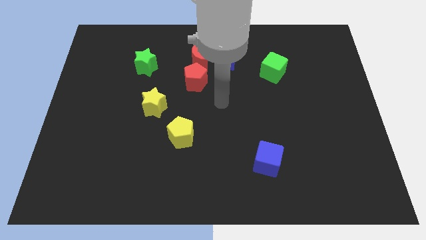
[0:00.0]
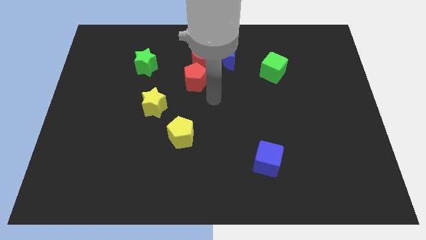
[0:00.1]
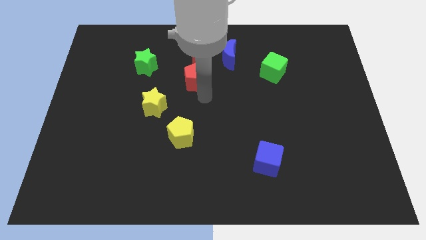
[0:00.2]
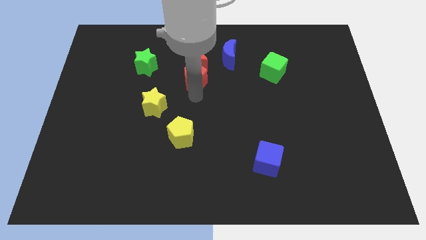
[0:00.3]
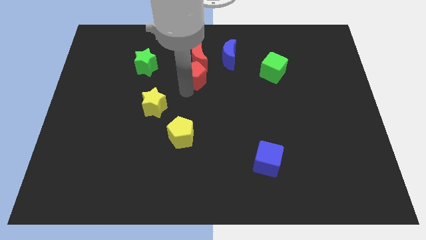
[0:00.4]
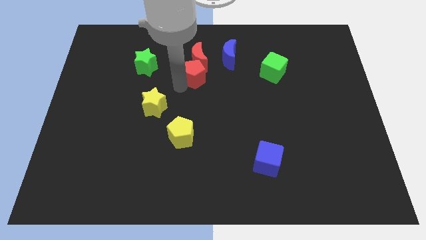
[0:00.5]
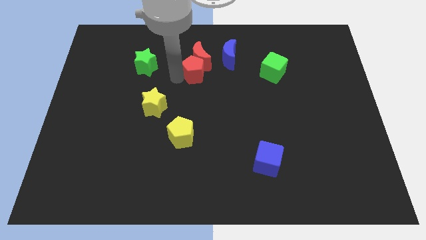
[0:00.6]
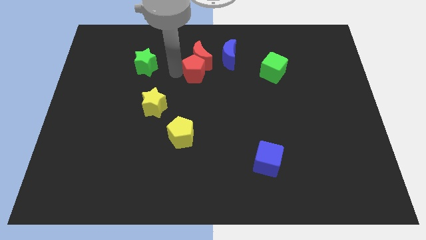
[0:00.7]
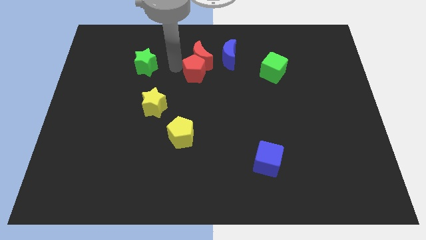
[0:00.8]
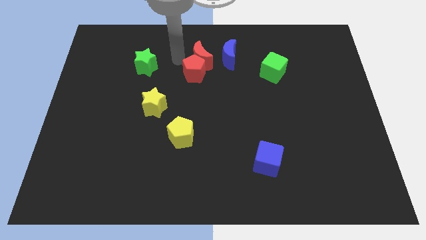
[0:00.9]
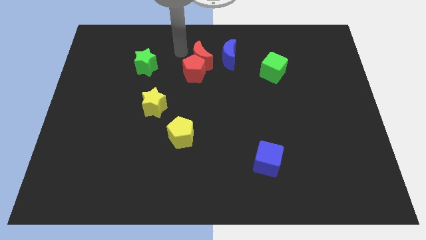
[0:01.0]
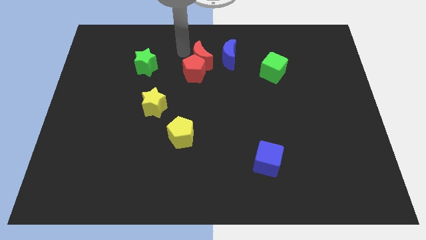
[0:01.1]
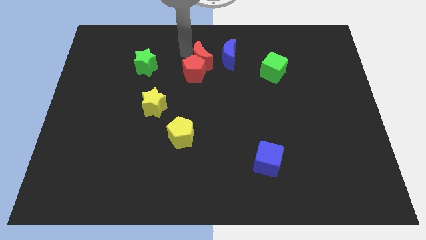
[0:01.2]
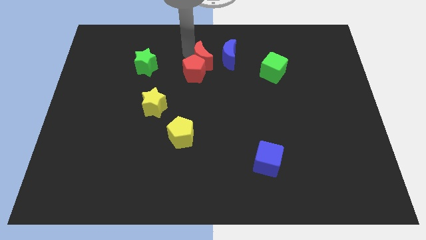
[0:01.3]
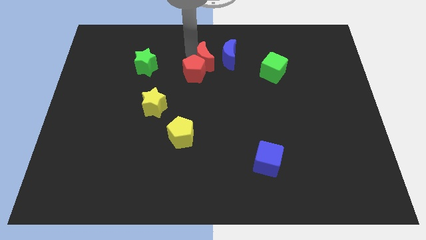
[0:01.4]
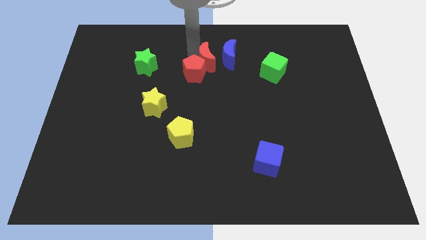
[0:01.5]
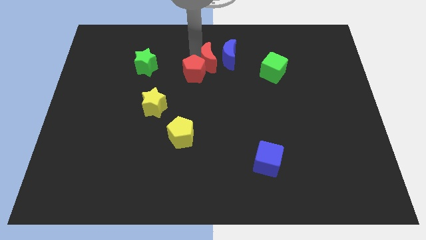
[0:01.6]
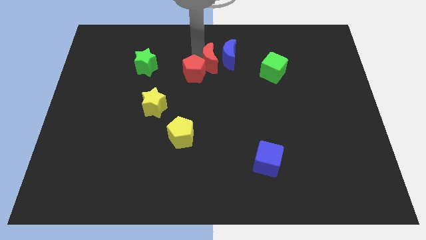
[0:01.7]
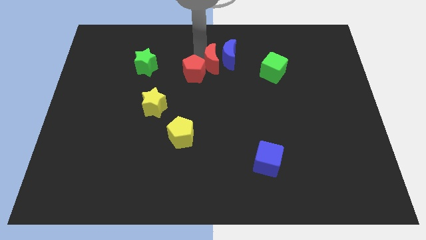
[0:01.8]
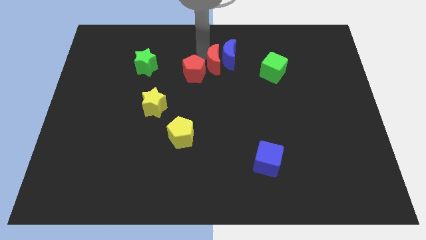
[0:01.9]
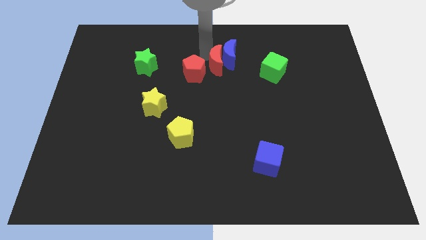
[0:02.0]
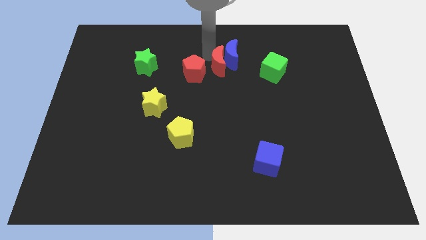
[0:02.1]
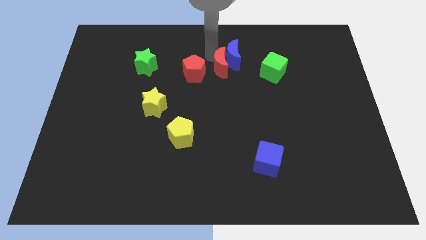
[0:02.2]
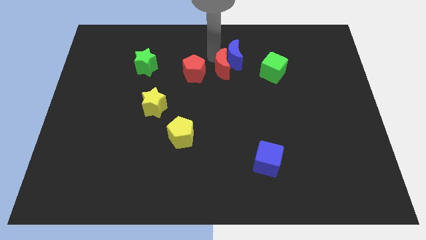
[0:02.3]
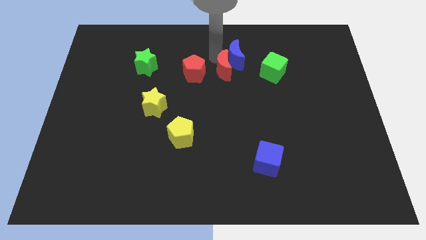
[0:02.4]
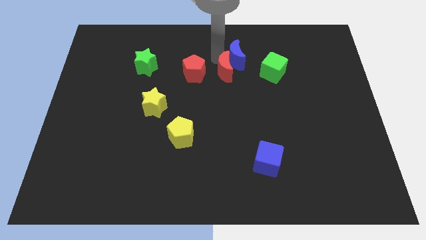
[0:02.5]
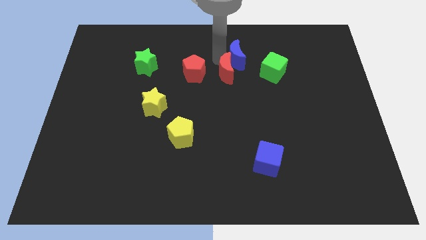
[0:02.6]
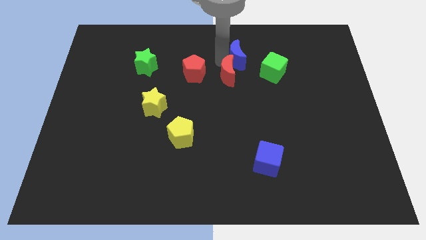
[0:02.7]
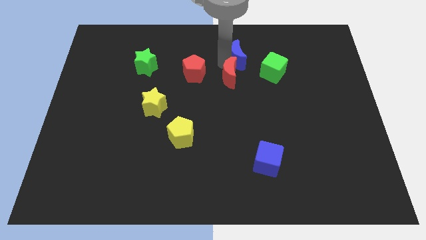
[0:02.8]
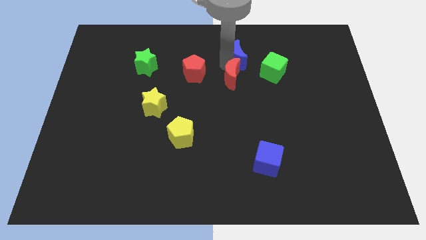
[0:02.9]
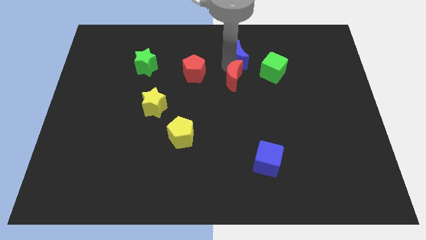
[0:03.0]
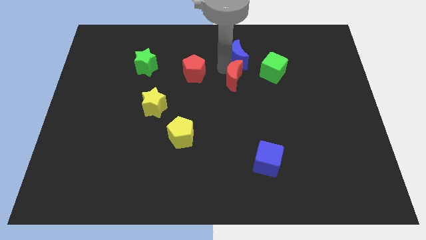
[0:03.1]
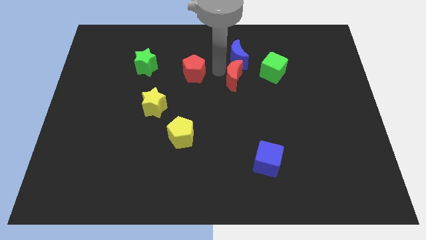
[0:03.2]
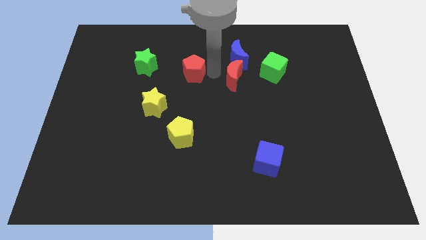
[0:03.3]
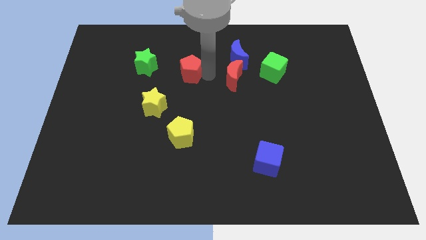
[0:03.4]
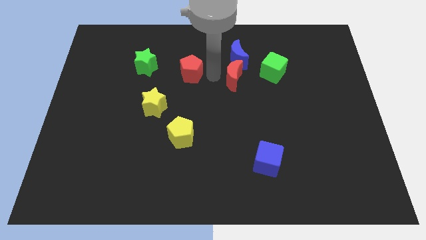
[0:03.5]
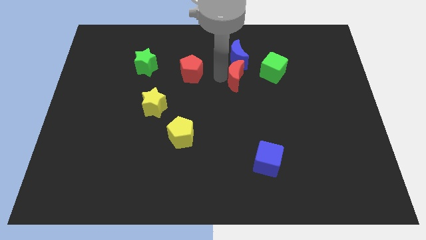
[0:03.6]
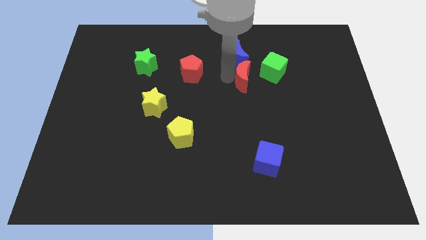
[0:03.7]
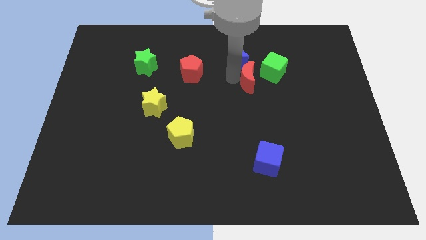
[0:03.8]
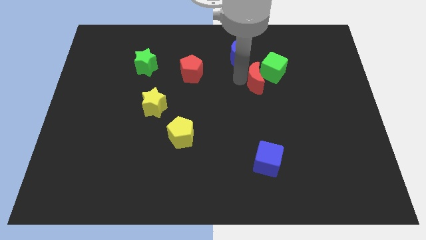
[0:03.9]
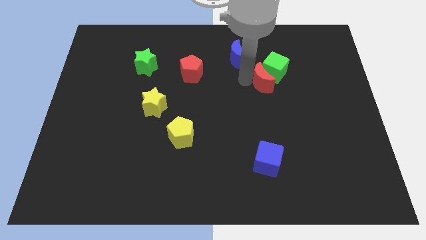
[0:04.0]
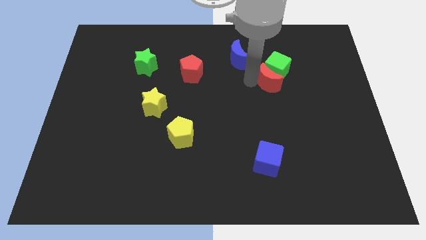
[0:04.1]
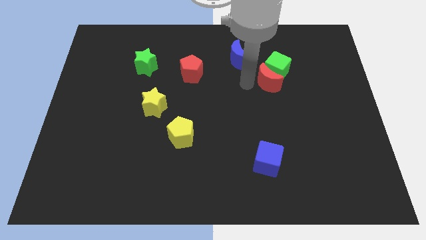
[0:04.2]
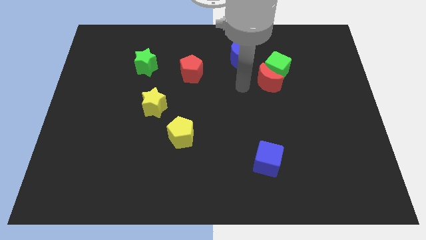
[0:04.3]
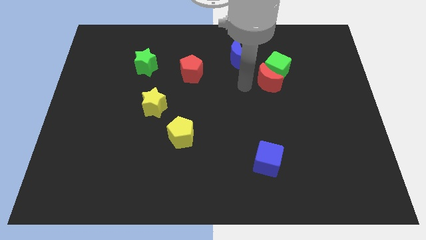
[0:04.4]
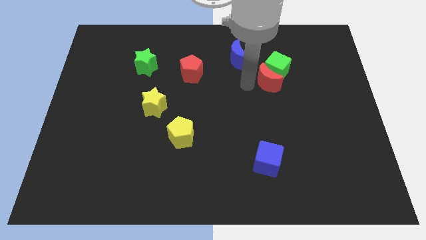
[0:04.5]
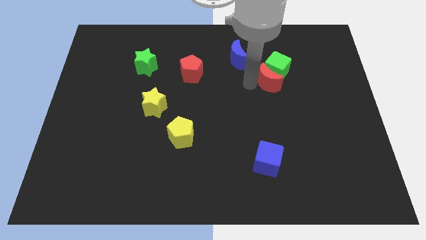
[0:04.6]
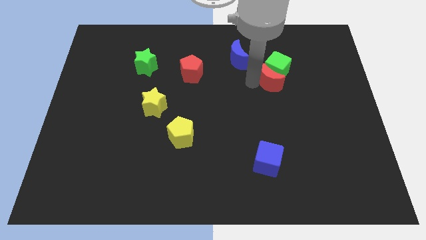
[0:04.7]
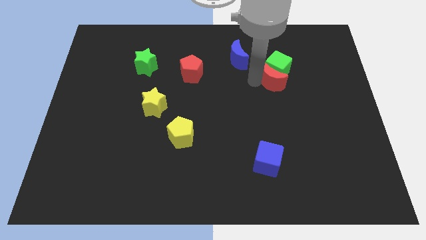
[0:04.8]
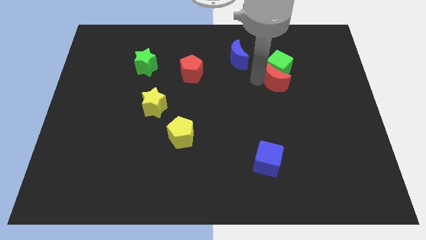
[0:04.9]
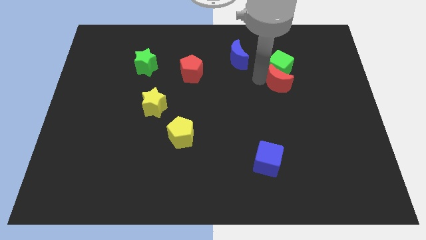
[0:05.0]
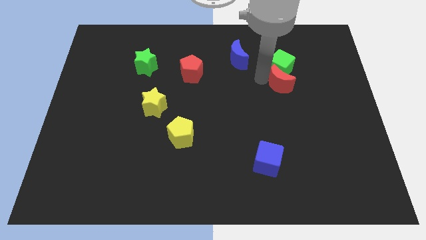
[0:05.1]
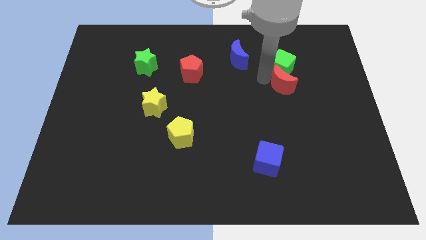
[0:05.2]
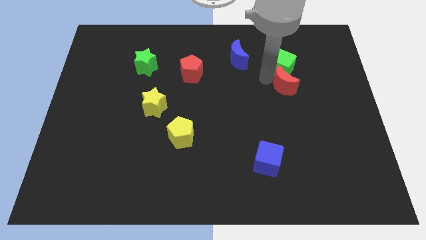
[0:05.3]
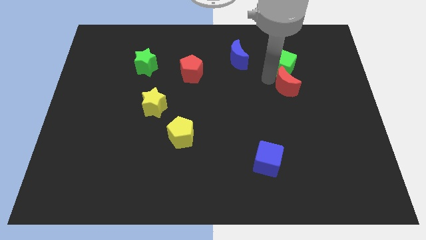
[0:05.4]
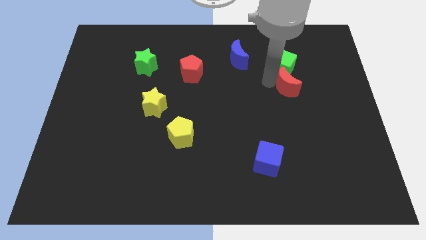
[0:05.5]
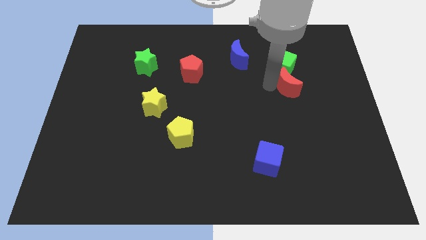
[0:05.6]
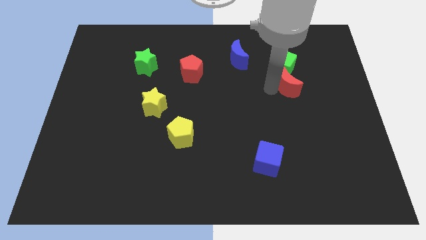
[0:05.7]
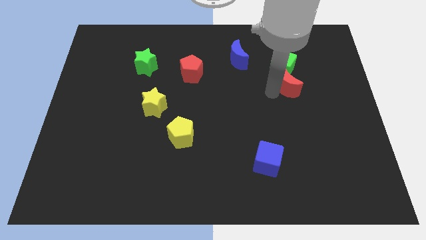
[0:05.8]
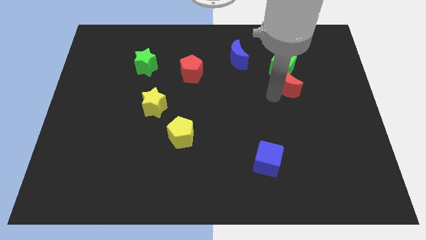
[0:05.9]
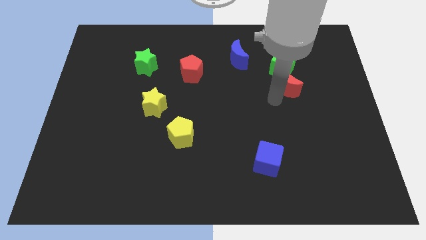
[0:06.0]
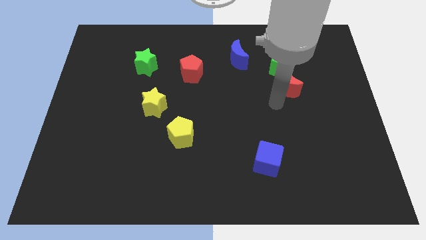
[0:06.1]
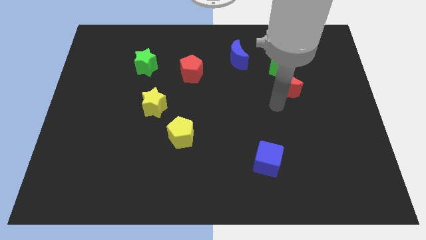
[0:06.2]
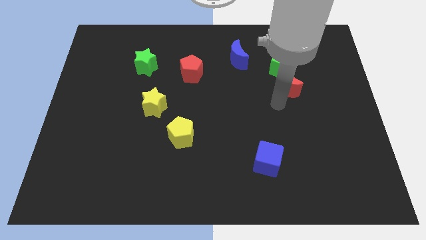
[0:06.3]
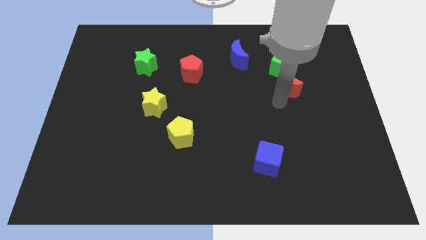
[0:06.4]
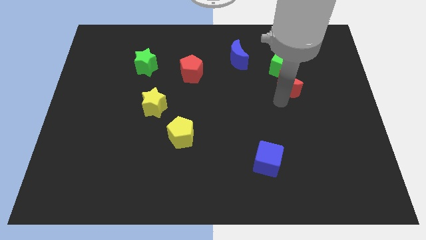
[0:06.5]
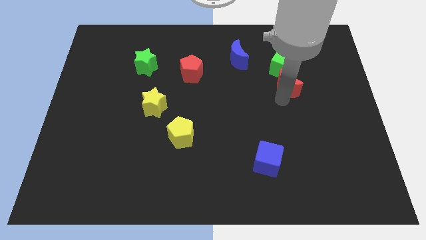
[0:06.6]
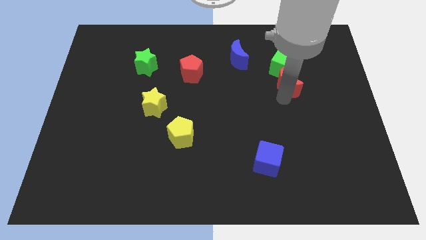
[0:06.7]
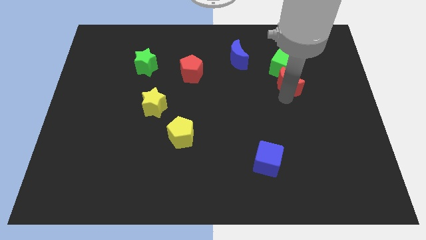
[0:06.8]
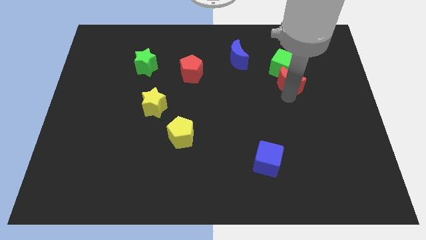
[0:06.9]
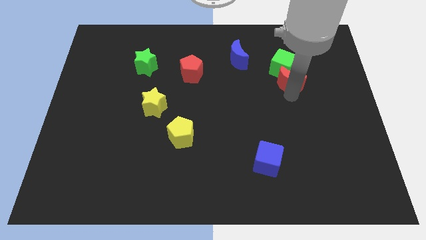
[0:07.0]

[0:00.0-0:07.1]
move the red moon to the right
